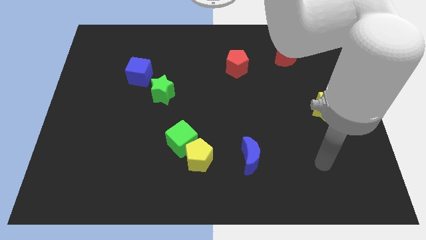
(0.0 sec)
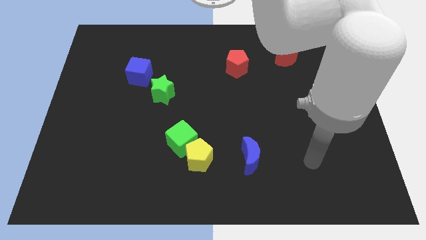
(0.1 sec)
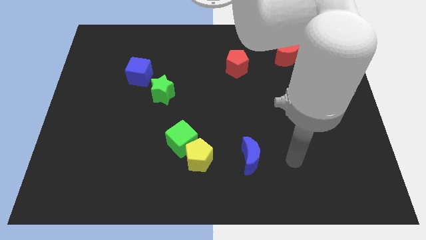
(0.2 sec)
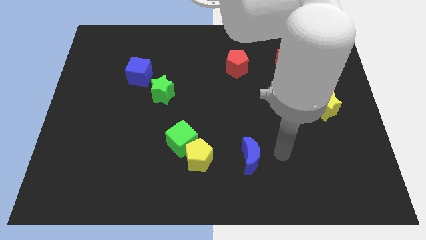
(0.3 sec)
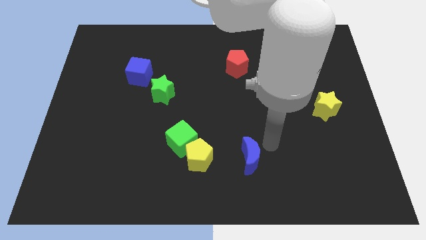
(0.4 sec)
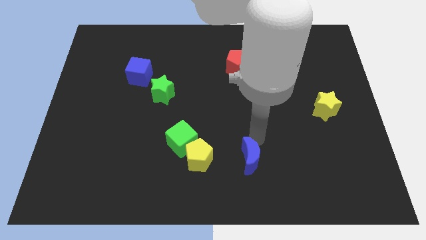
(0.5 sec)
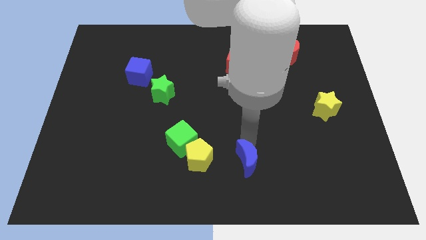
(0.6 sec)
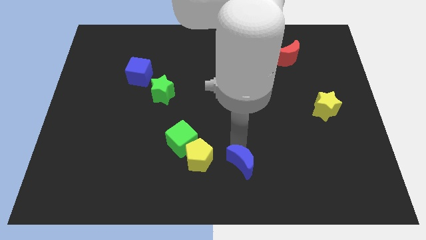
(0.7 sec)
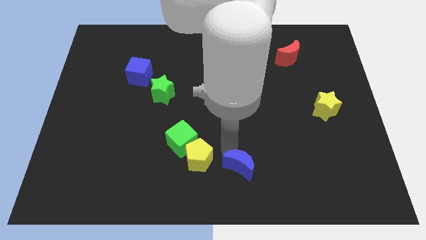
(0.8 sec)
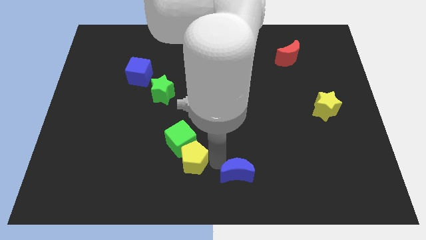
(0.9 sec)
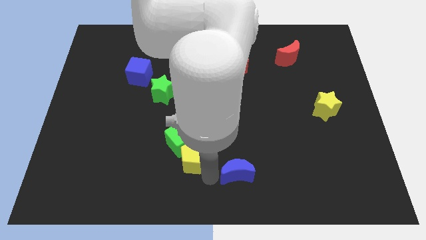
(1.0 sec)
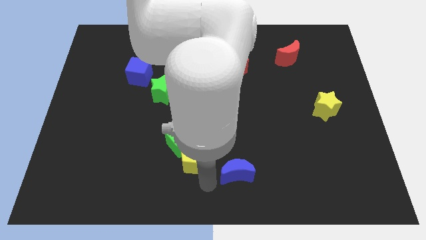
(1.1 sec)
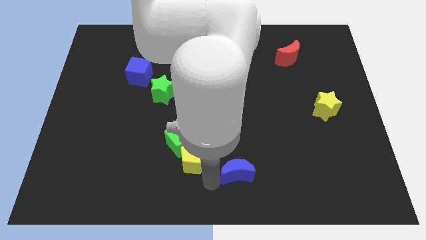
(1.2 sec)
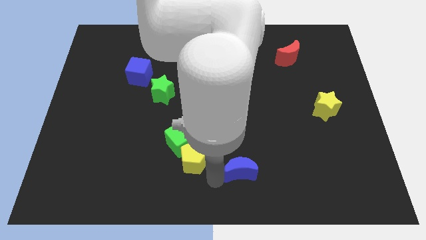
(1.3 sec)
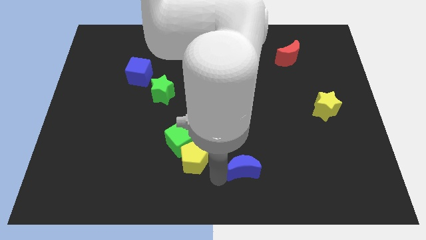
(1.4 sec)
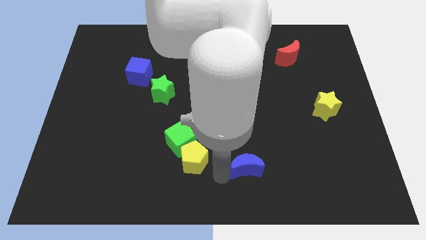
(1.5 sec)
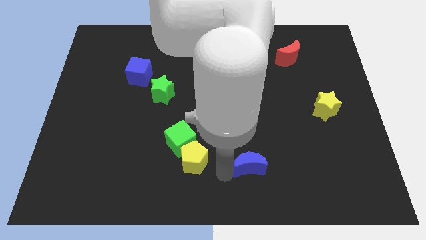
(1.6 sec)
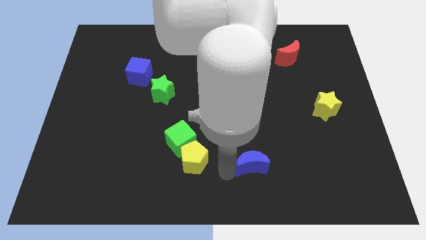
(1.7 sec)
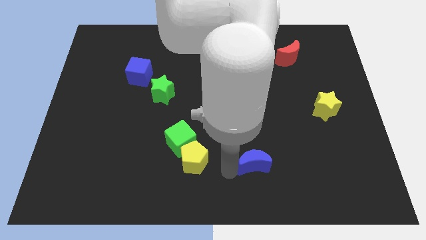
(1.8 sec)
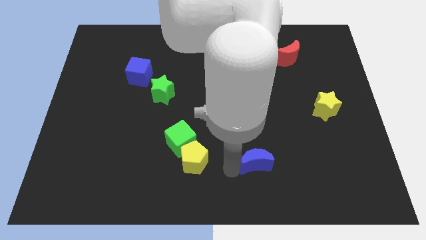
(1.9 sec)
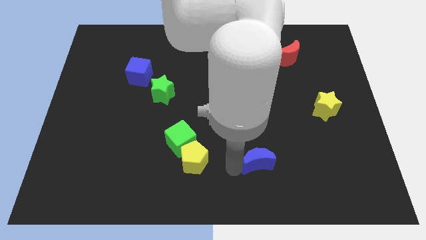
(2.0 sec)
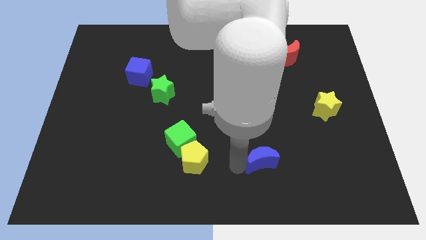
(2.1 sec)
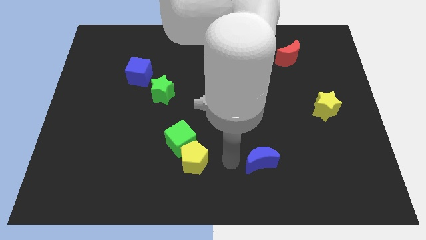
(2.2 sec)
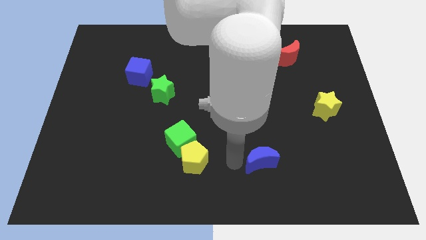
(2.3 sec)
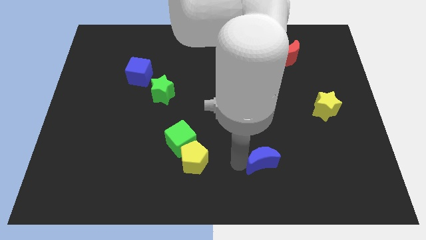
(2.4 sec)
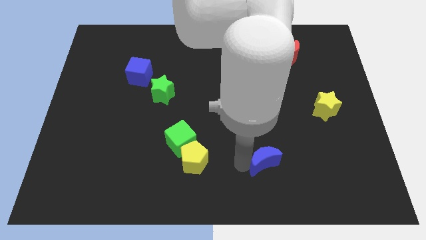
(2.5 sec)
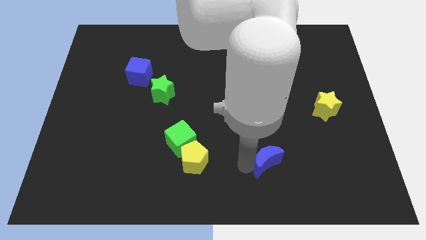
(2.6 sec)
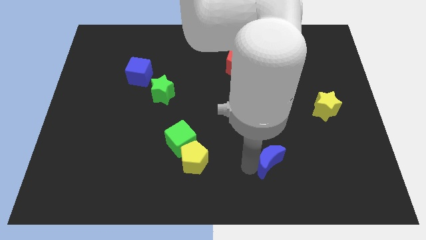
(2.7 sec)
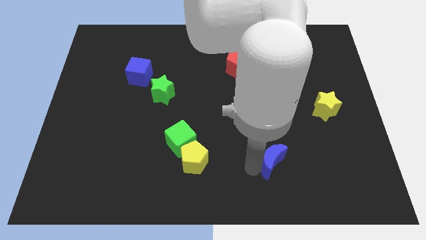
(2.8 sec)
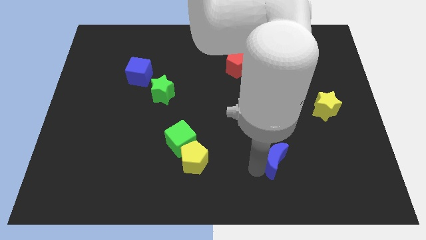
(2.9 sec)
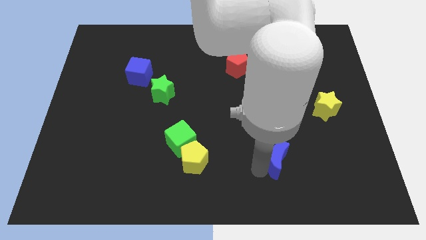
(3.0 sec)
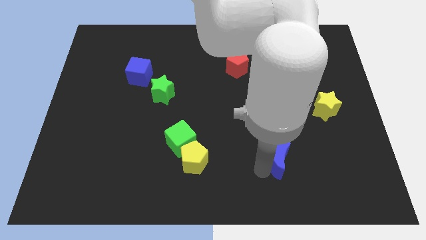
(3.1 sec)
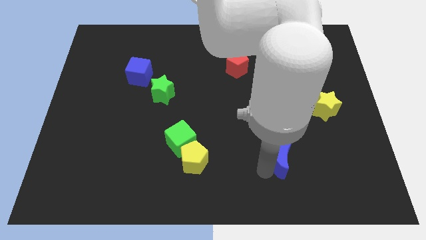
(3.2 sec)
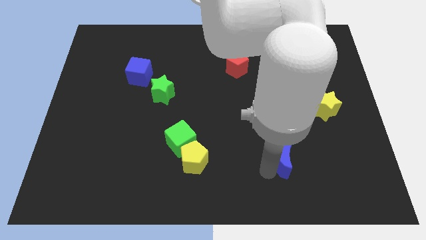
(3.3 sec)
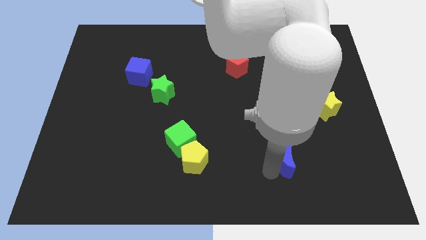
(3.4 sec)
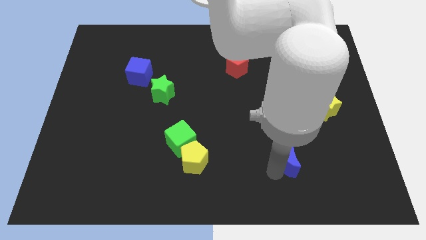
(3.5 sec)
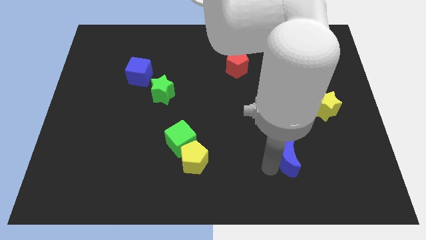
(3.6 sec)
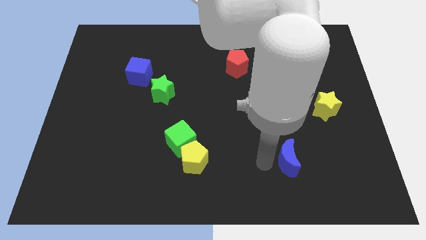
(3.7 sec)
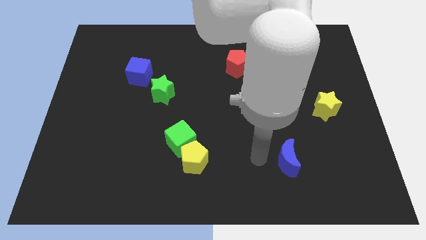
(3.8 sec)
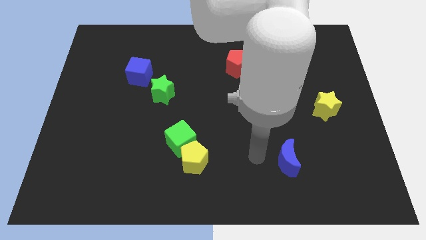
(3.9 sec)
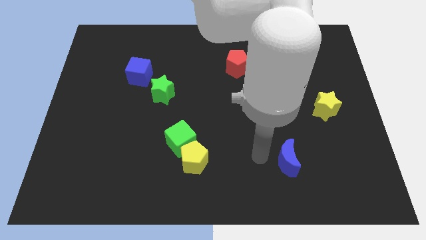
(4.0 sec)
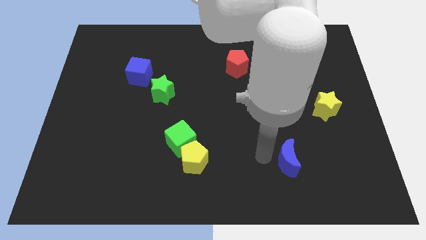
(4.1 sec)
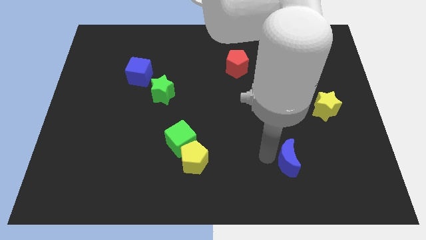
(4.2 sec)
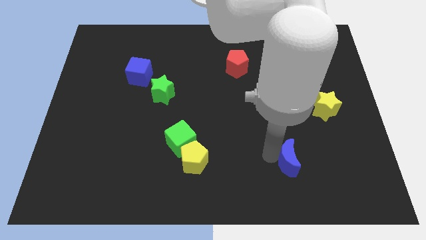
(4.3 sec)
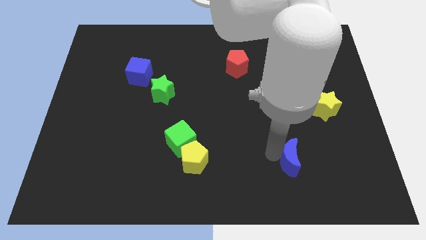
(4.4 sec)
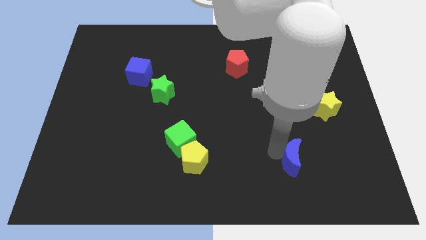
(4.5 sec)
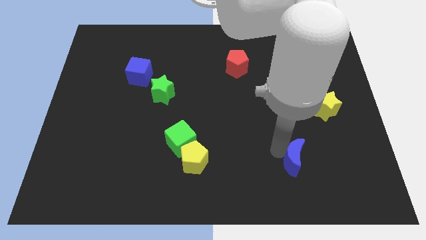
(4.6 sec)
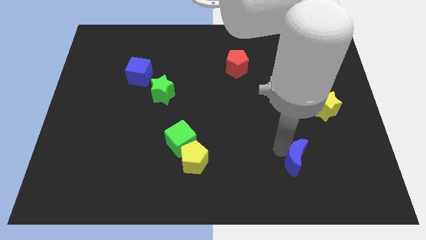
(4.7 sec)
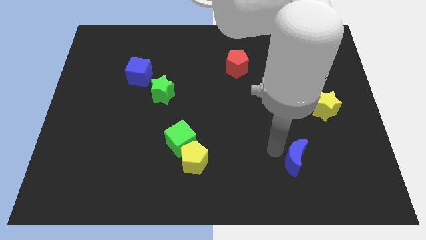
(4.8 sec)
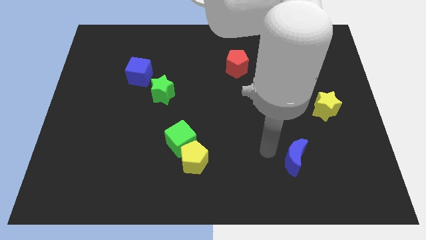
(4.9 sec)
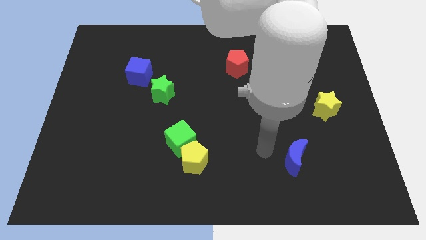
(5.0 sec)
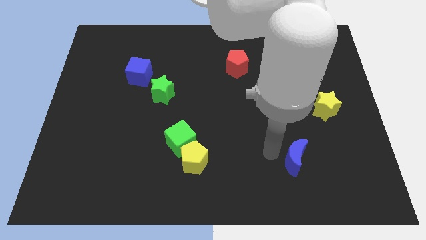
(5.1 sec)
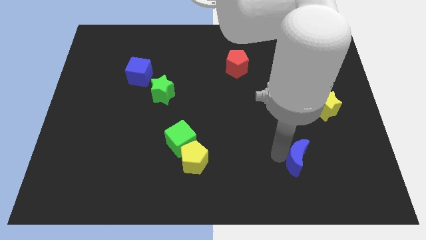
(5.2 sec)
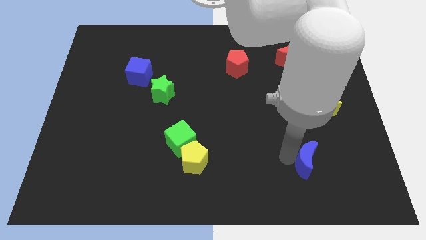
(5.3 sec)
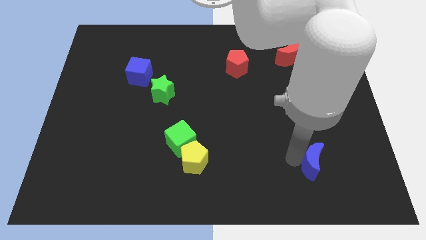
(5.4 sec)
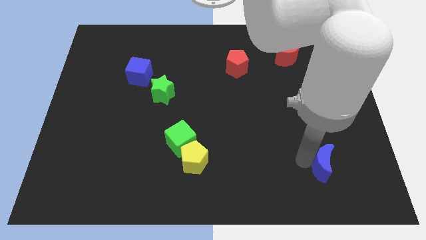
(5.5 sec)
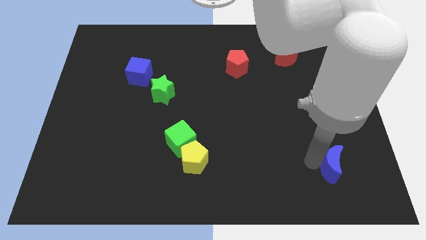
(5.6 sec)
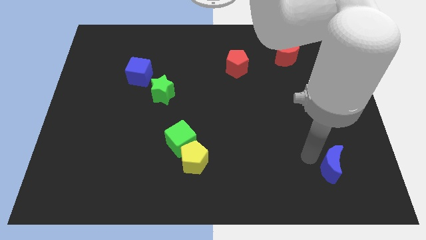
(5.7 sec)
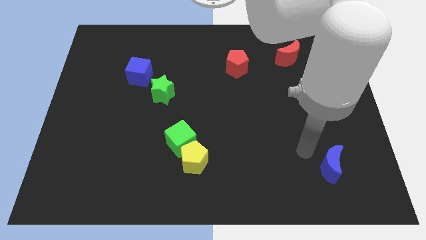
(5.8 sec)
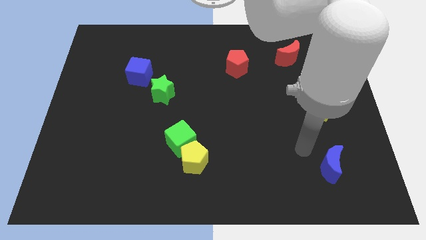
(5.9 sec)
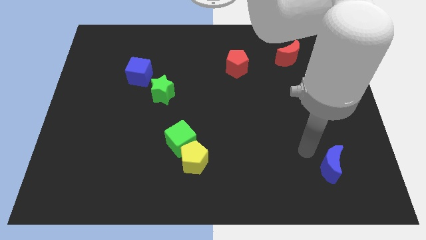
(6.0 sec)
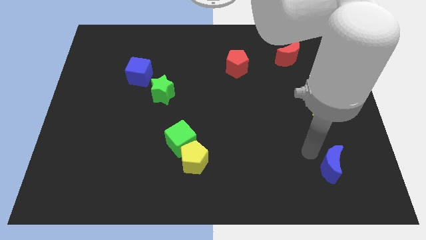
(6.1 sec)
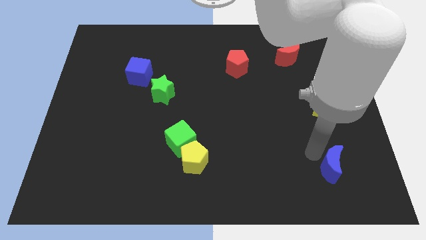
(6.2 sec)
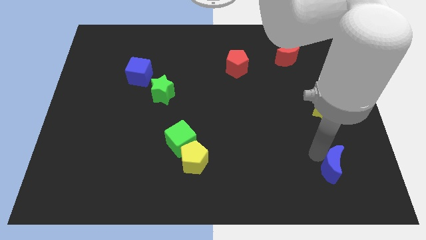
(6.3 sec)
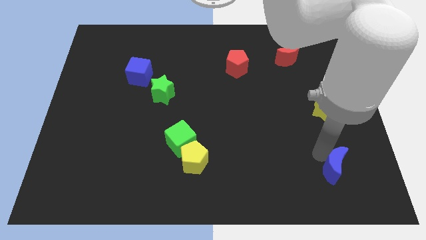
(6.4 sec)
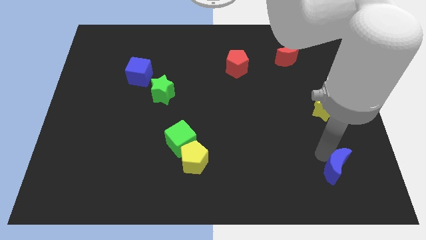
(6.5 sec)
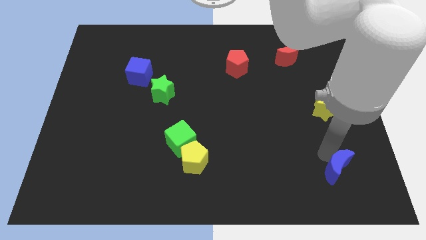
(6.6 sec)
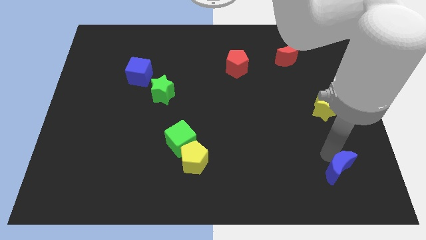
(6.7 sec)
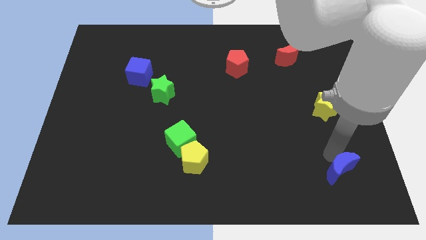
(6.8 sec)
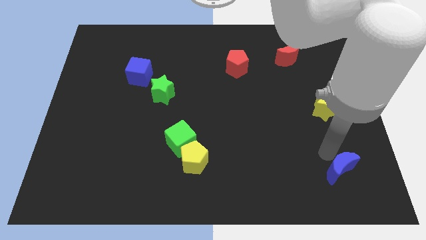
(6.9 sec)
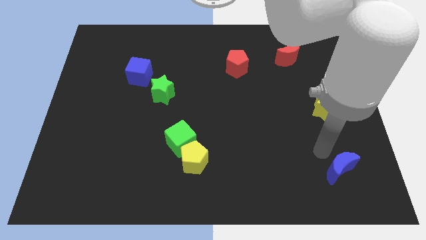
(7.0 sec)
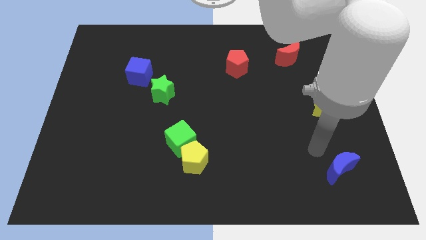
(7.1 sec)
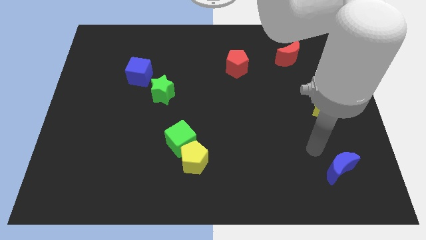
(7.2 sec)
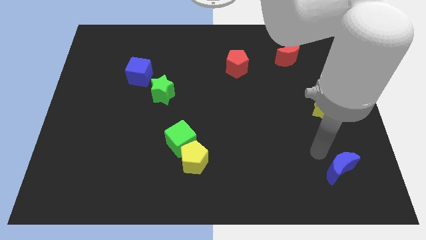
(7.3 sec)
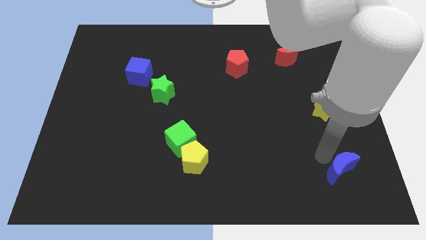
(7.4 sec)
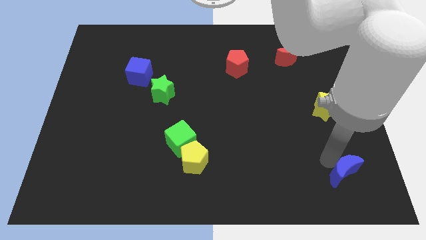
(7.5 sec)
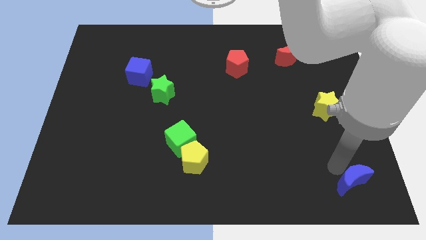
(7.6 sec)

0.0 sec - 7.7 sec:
push the blue moon to the bottom right
